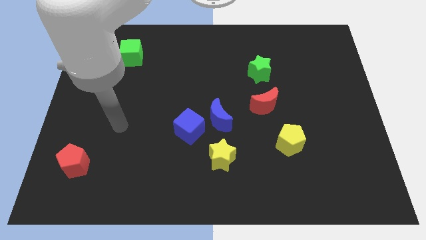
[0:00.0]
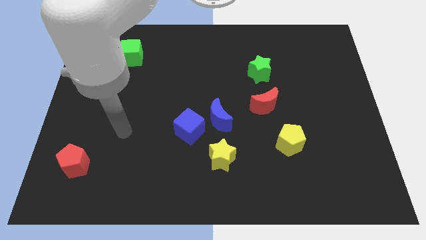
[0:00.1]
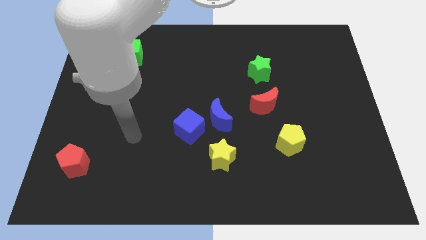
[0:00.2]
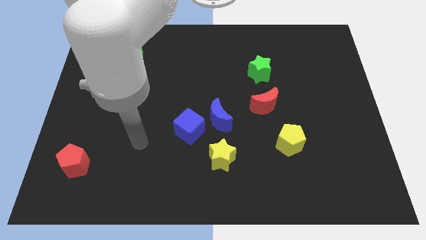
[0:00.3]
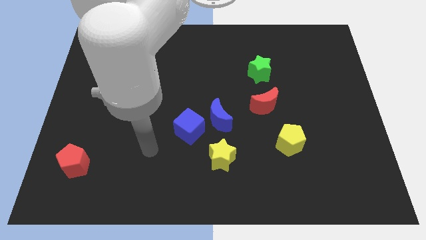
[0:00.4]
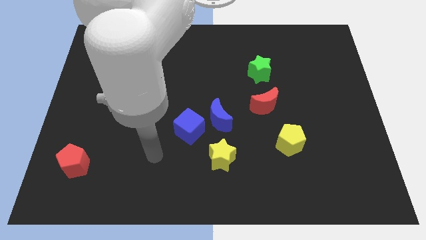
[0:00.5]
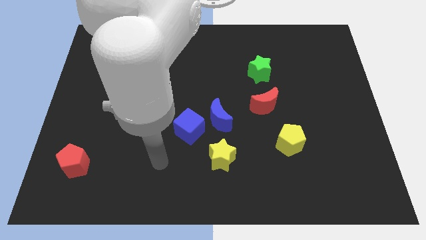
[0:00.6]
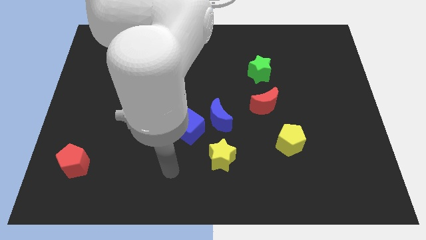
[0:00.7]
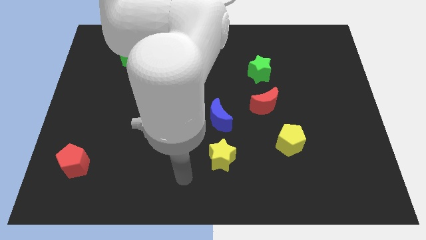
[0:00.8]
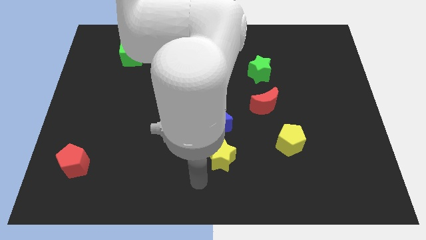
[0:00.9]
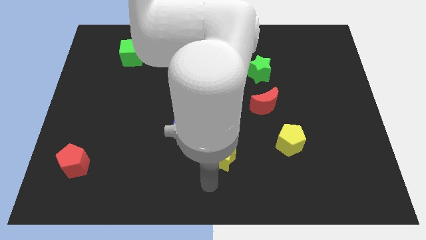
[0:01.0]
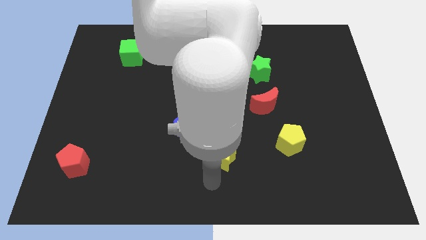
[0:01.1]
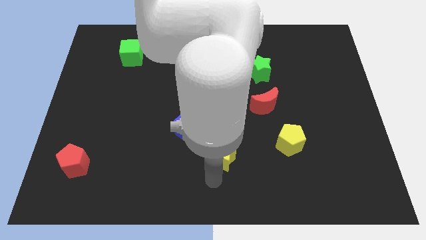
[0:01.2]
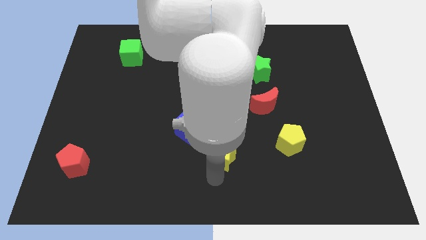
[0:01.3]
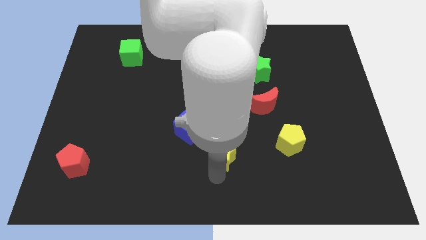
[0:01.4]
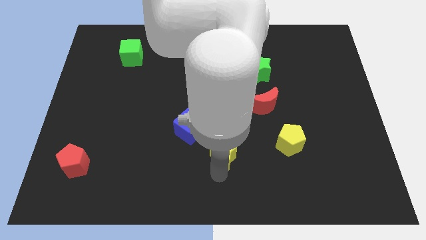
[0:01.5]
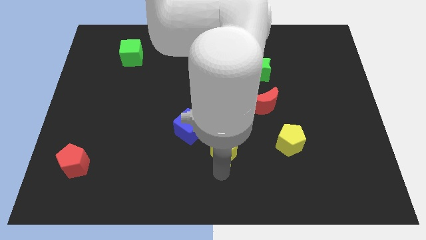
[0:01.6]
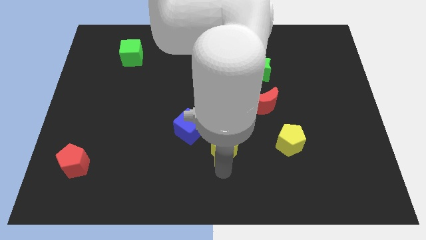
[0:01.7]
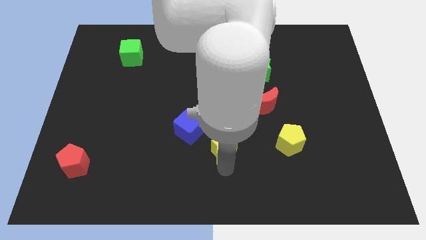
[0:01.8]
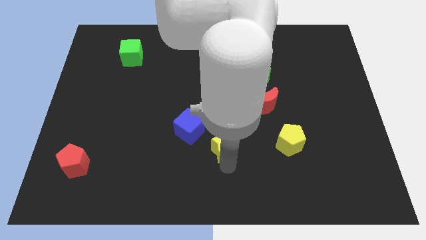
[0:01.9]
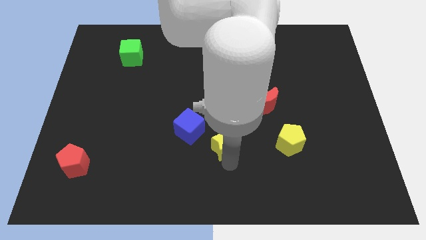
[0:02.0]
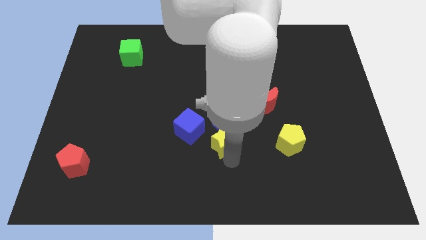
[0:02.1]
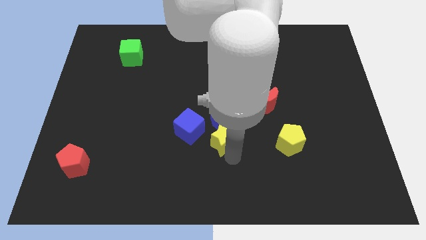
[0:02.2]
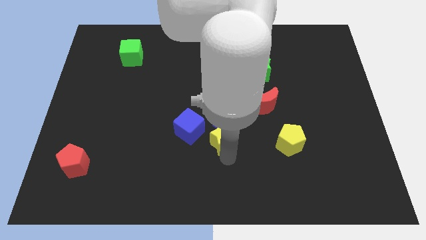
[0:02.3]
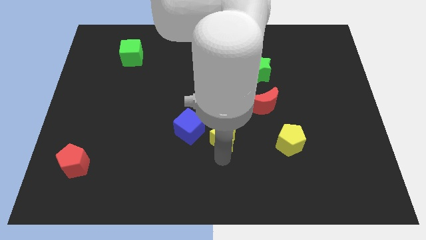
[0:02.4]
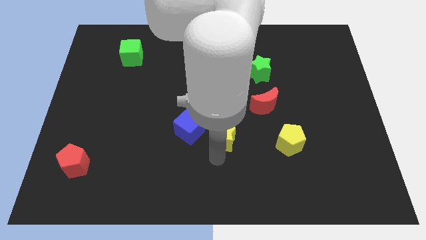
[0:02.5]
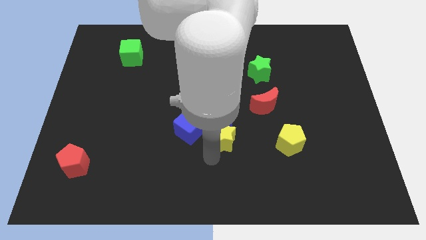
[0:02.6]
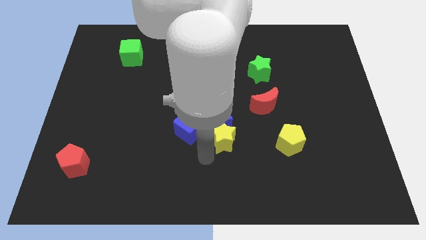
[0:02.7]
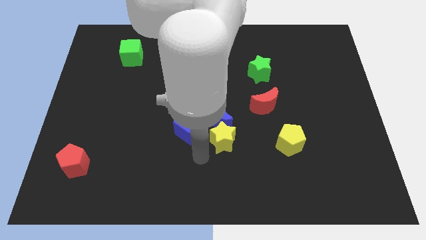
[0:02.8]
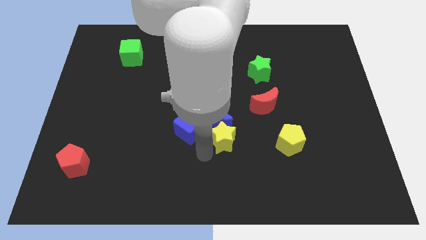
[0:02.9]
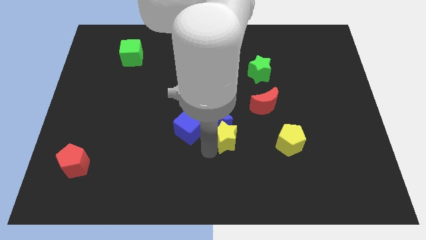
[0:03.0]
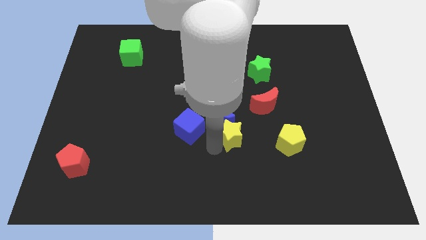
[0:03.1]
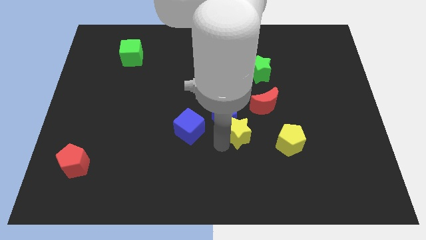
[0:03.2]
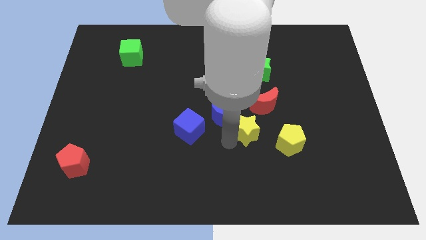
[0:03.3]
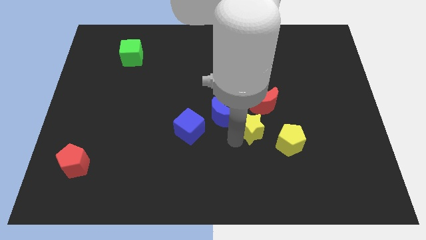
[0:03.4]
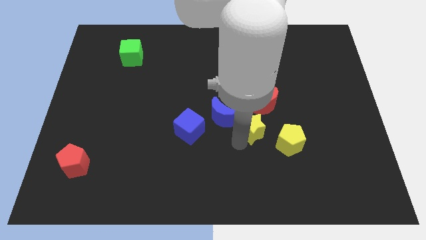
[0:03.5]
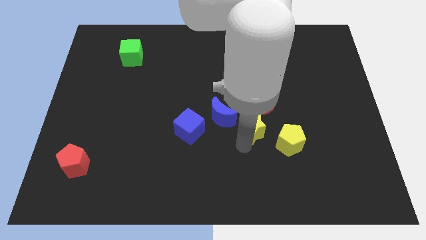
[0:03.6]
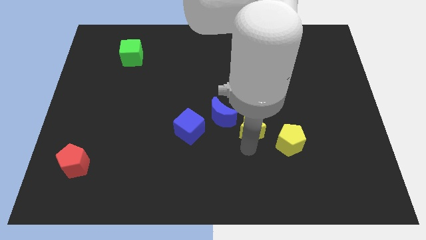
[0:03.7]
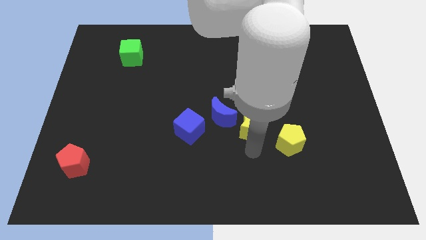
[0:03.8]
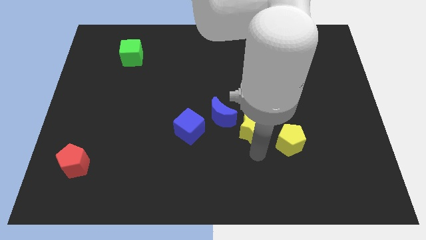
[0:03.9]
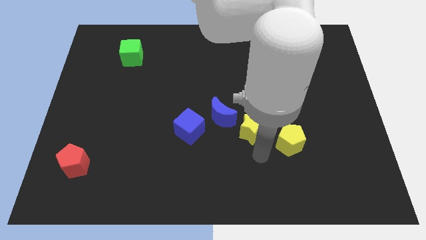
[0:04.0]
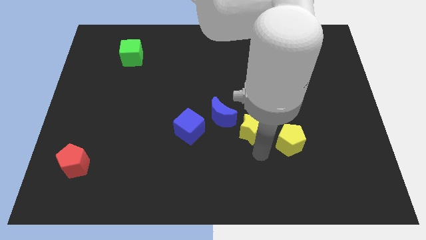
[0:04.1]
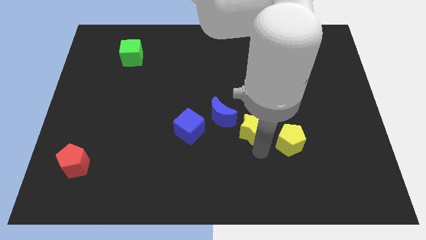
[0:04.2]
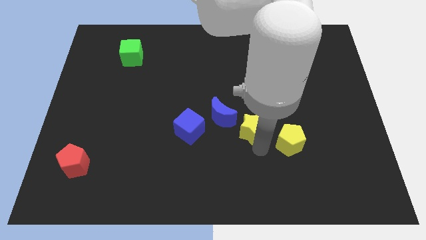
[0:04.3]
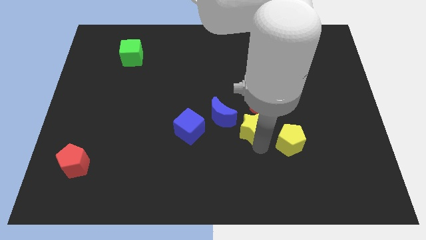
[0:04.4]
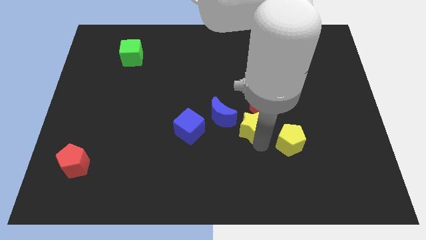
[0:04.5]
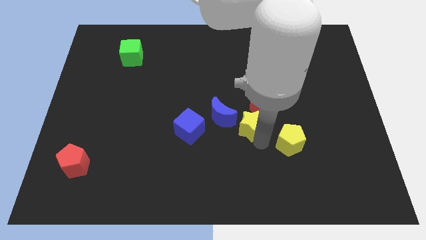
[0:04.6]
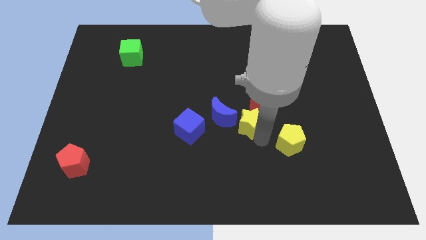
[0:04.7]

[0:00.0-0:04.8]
slightly move the yellow star up

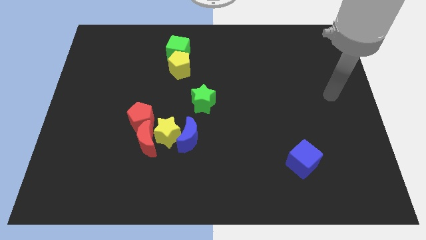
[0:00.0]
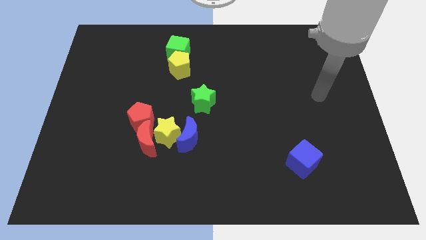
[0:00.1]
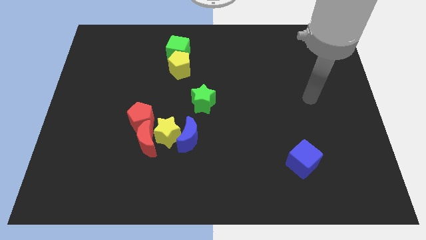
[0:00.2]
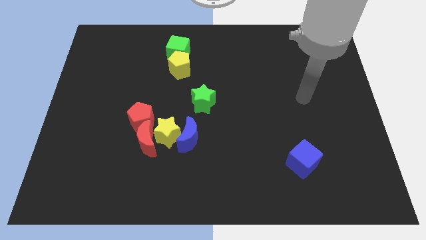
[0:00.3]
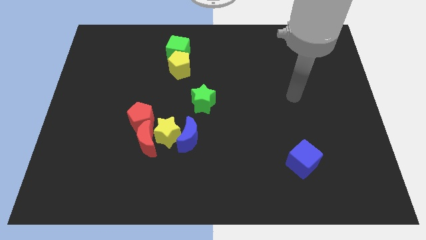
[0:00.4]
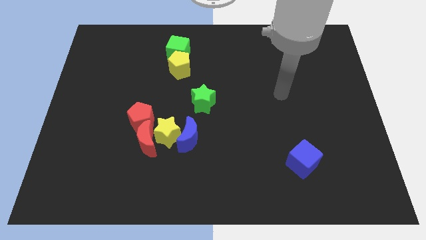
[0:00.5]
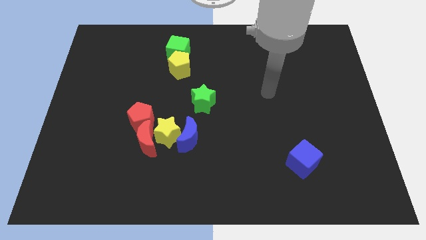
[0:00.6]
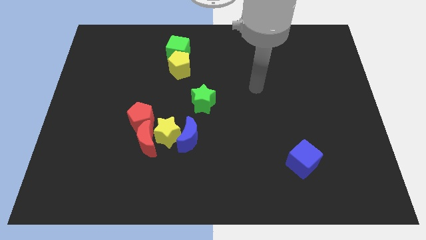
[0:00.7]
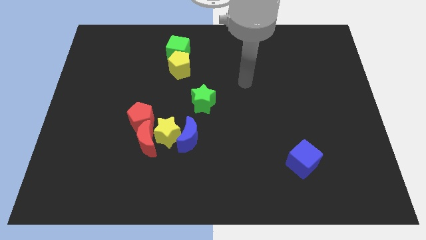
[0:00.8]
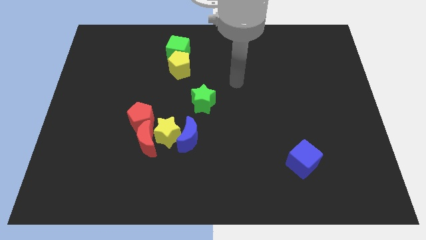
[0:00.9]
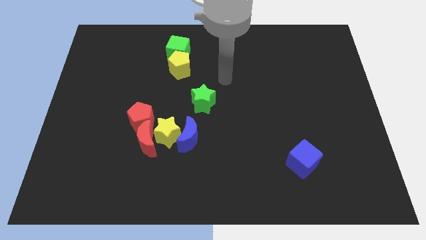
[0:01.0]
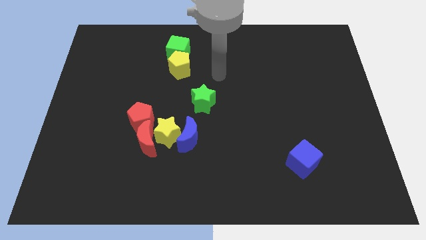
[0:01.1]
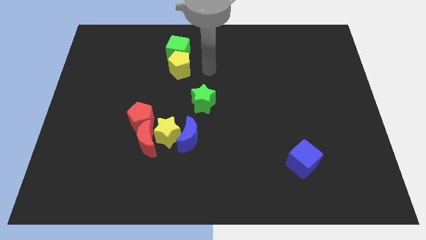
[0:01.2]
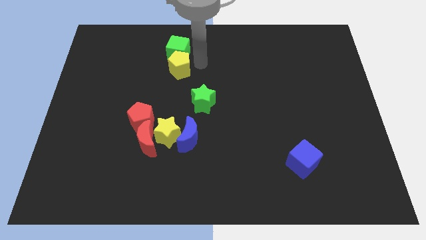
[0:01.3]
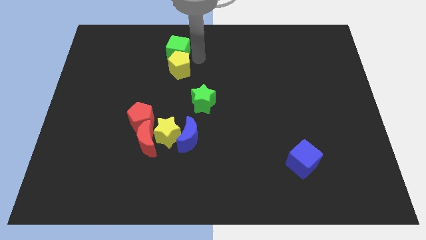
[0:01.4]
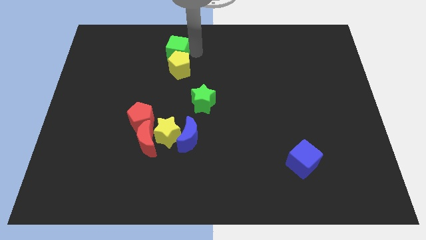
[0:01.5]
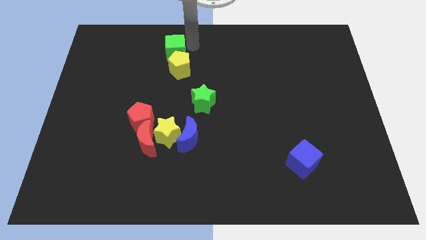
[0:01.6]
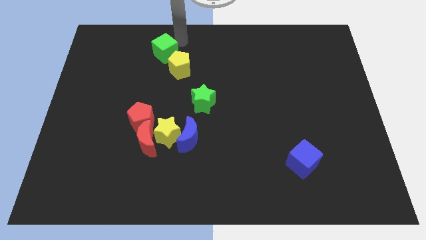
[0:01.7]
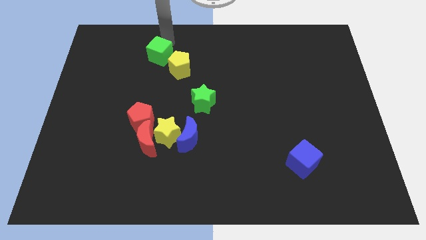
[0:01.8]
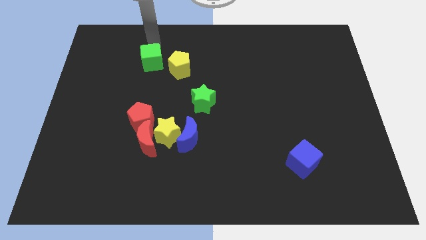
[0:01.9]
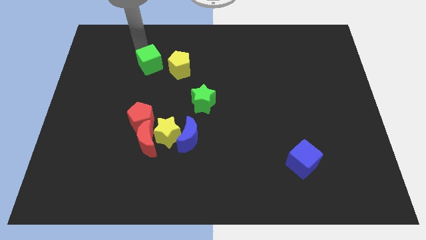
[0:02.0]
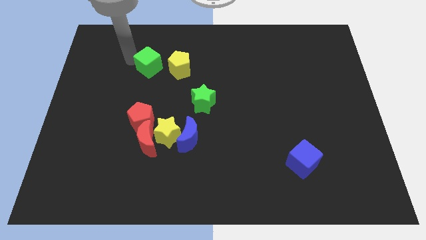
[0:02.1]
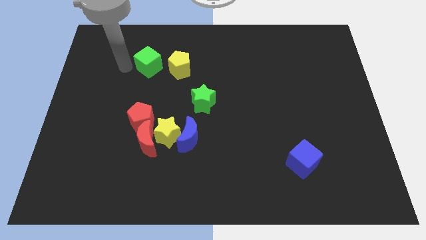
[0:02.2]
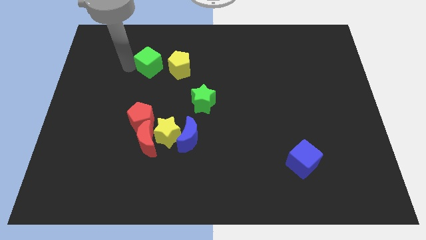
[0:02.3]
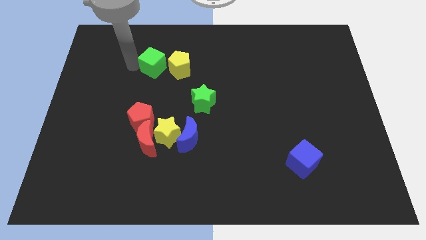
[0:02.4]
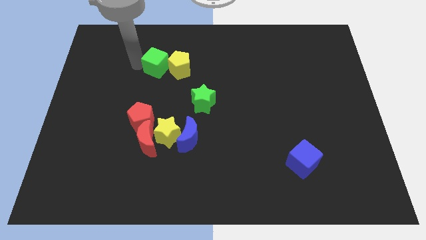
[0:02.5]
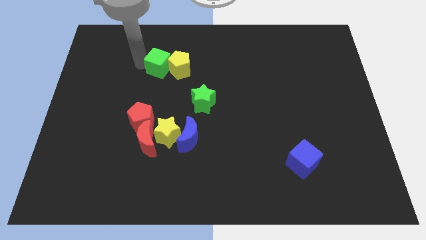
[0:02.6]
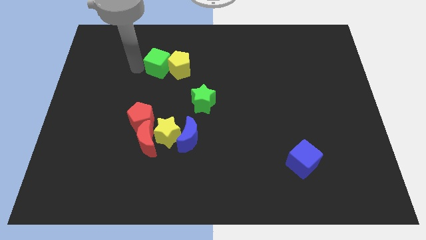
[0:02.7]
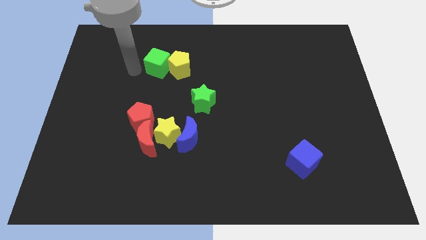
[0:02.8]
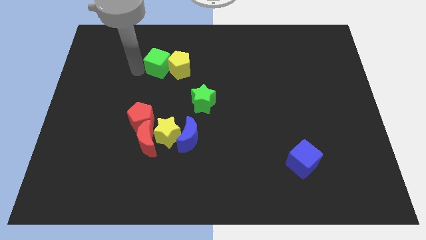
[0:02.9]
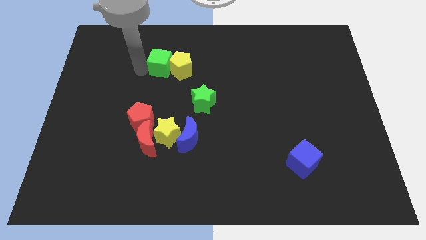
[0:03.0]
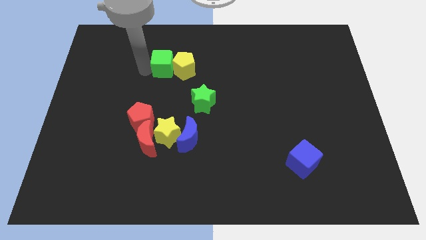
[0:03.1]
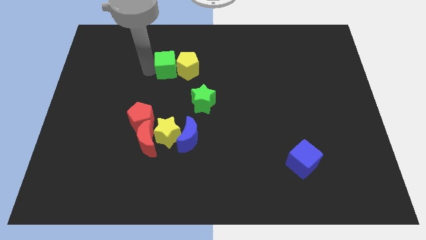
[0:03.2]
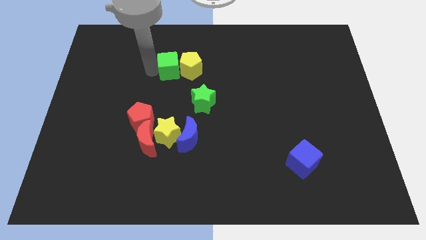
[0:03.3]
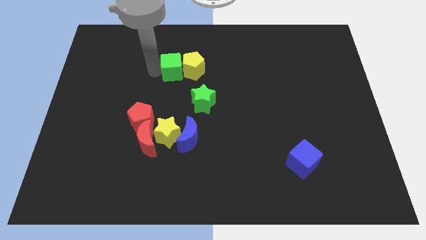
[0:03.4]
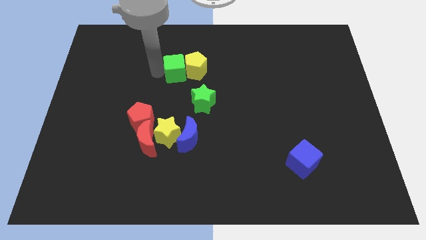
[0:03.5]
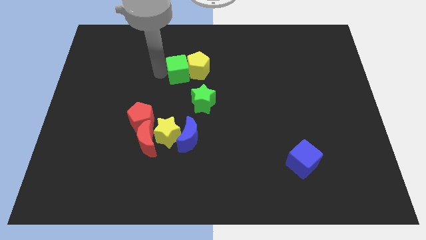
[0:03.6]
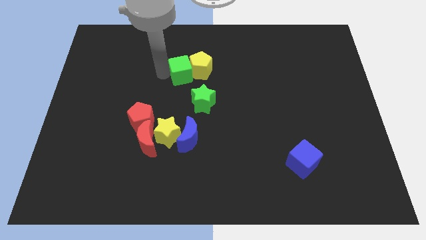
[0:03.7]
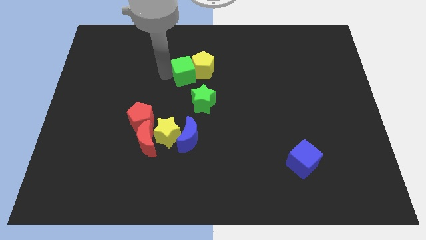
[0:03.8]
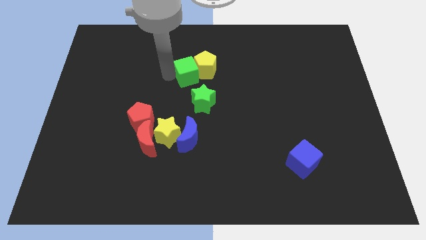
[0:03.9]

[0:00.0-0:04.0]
push the green cube slightly down and then right
